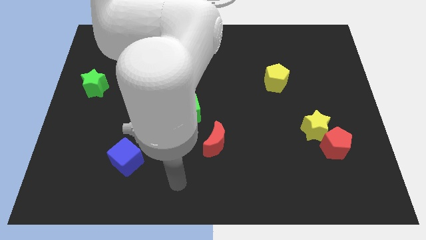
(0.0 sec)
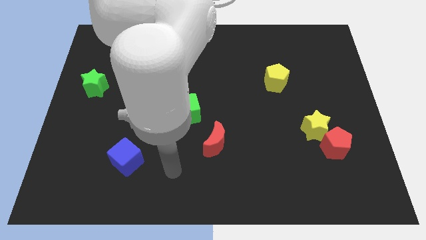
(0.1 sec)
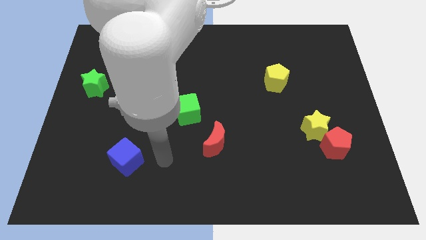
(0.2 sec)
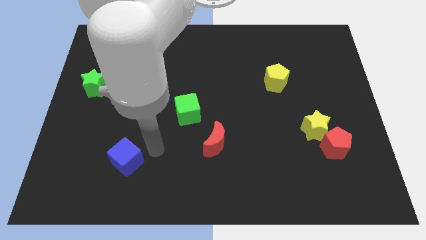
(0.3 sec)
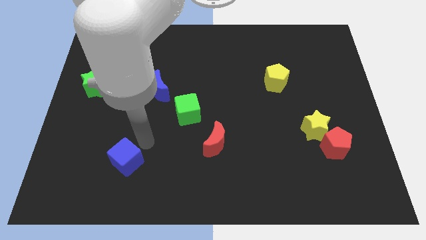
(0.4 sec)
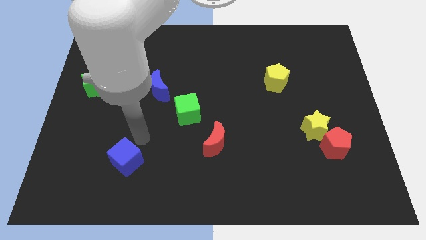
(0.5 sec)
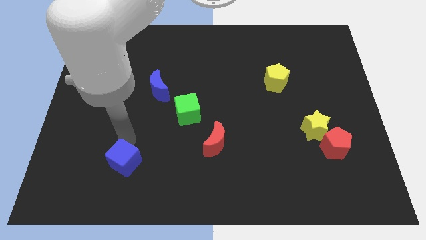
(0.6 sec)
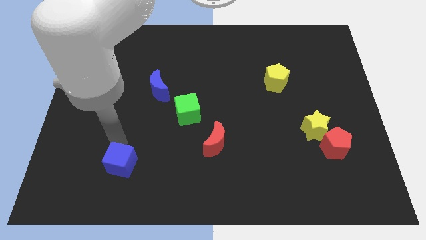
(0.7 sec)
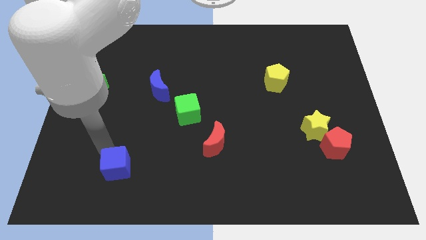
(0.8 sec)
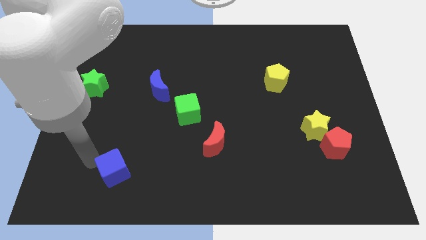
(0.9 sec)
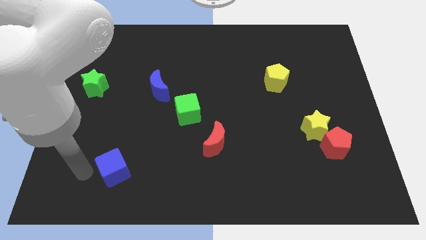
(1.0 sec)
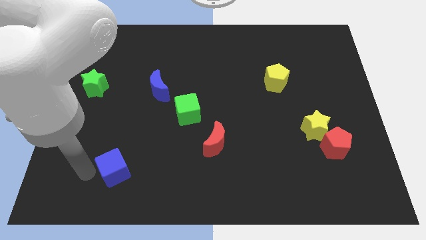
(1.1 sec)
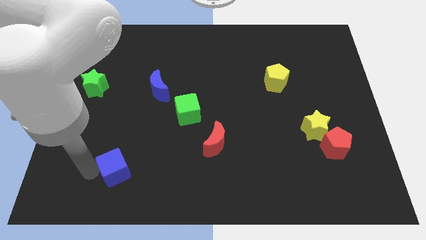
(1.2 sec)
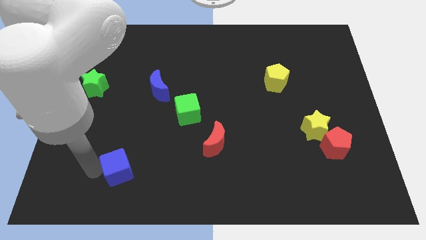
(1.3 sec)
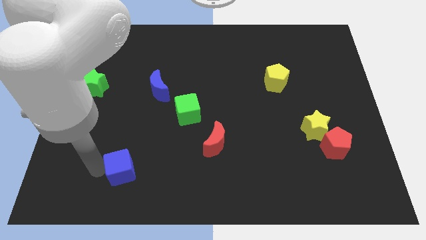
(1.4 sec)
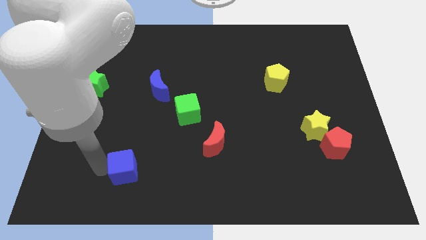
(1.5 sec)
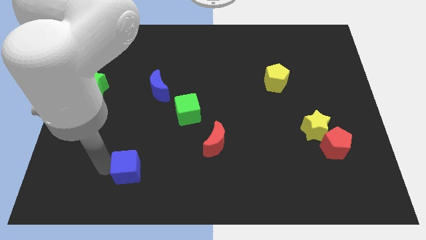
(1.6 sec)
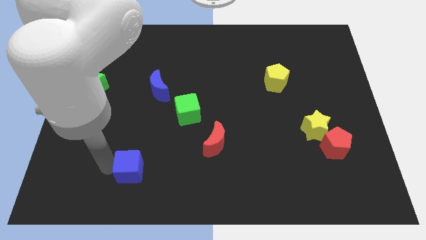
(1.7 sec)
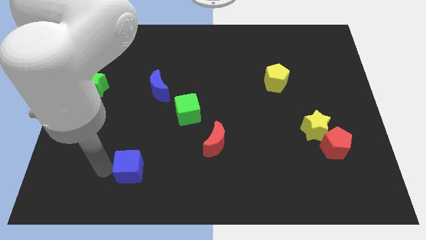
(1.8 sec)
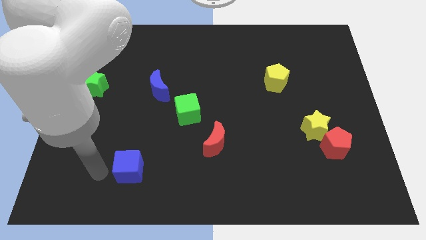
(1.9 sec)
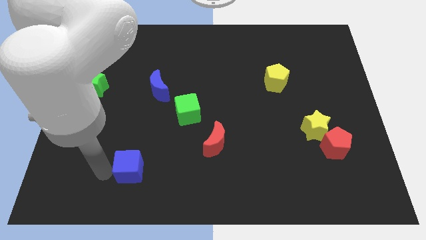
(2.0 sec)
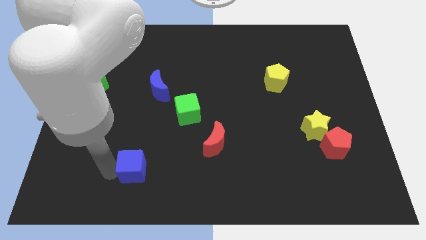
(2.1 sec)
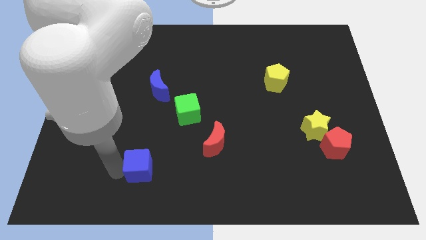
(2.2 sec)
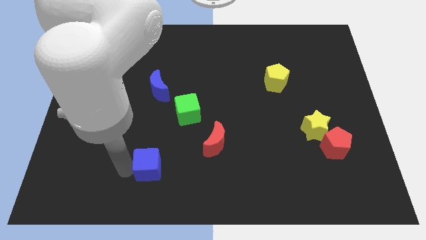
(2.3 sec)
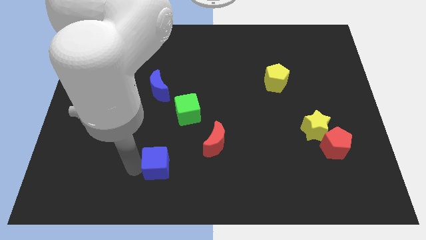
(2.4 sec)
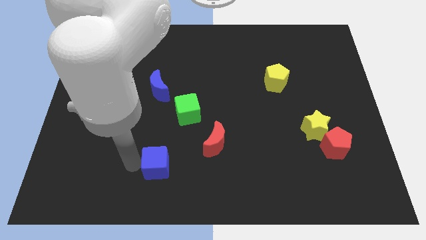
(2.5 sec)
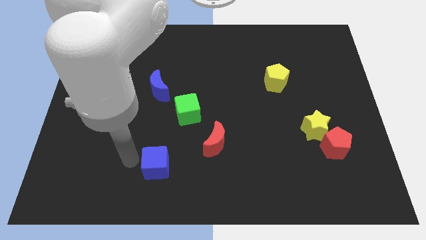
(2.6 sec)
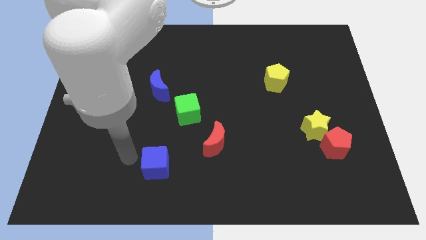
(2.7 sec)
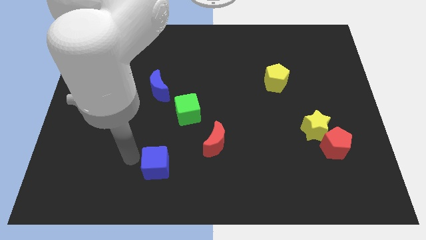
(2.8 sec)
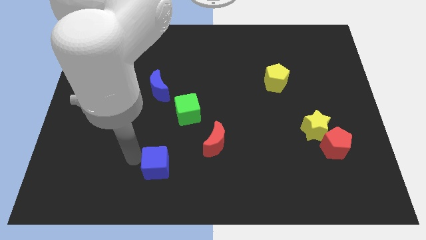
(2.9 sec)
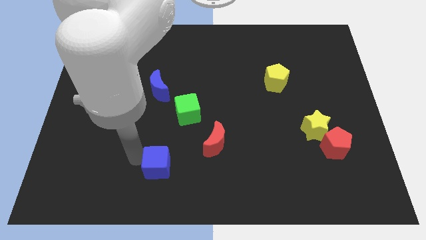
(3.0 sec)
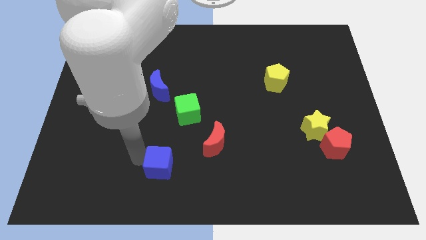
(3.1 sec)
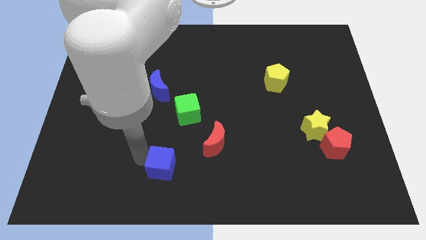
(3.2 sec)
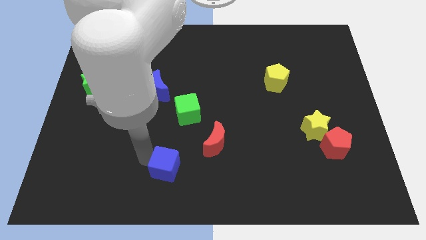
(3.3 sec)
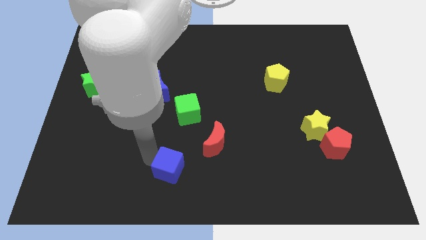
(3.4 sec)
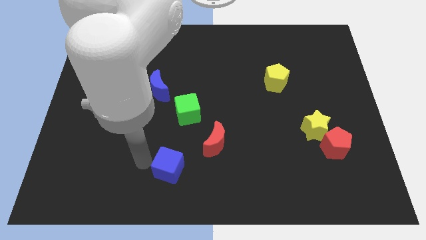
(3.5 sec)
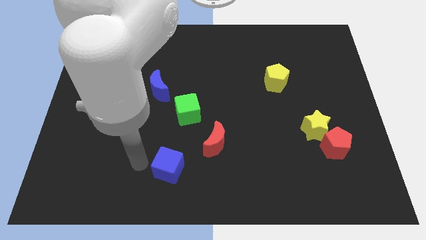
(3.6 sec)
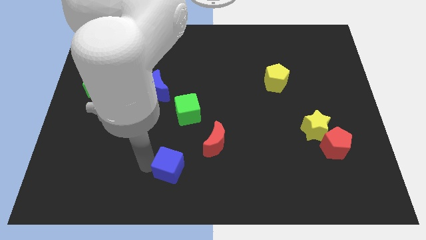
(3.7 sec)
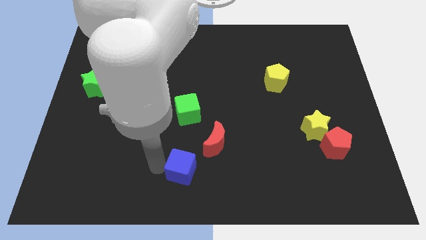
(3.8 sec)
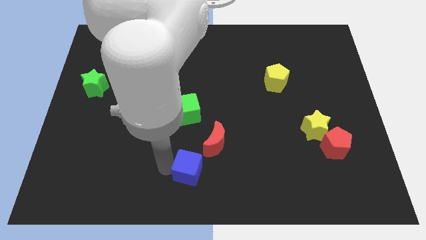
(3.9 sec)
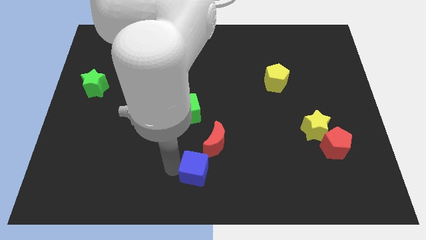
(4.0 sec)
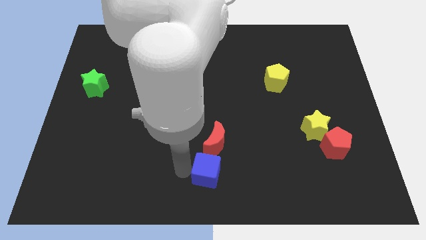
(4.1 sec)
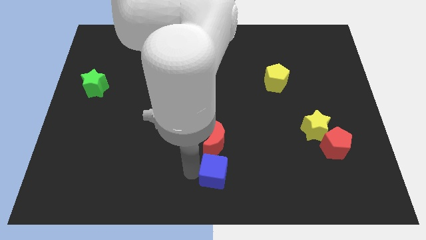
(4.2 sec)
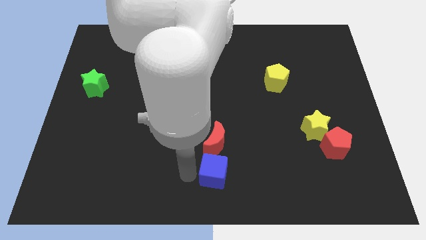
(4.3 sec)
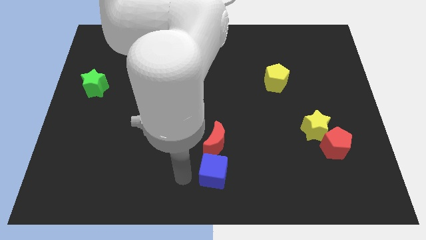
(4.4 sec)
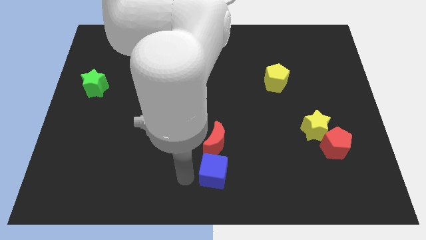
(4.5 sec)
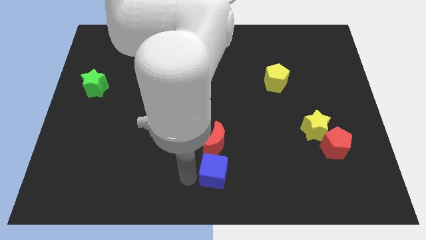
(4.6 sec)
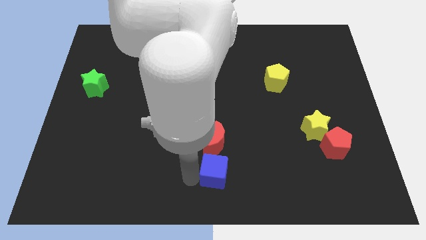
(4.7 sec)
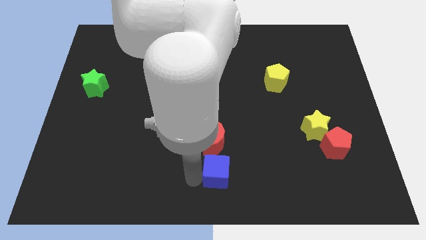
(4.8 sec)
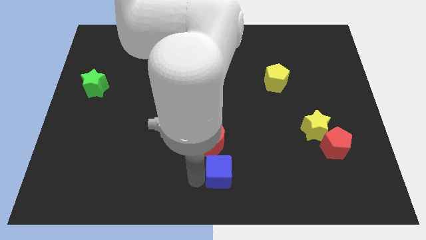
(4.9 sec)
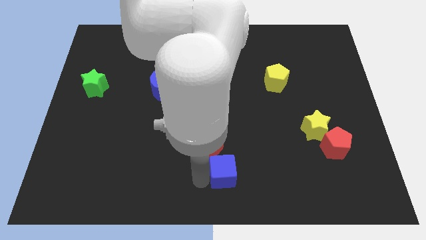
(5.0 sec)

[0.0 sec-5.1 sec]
move the blue cube right

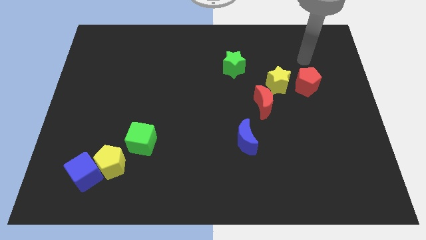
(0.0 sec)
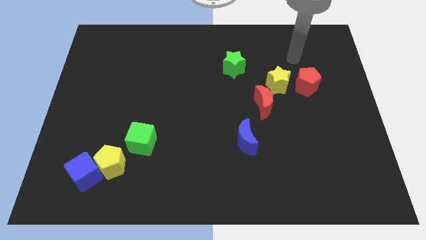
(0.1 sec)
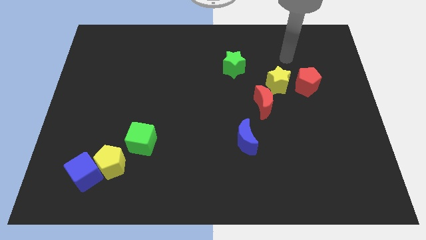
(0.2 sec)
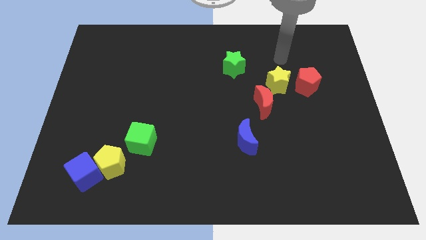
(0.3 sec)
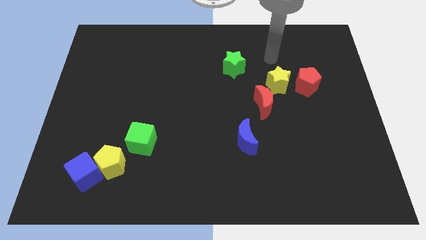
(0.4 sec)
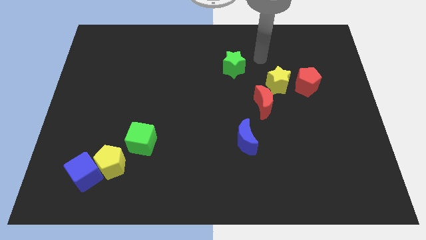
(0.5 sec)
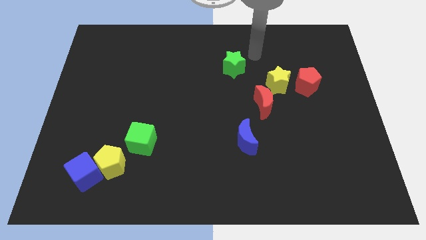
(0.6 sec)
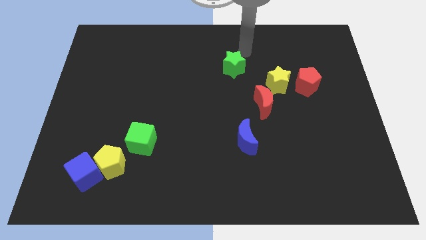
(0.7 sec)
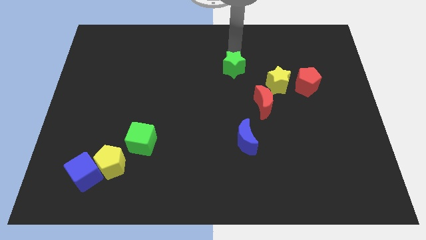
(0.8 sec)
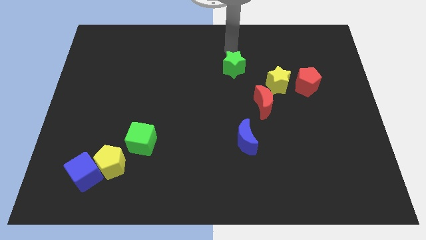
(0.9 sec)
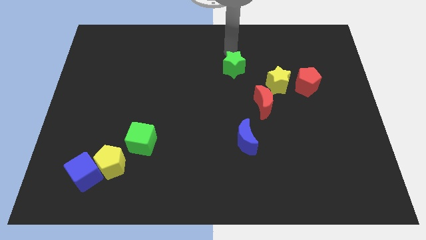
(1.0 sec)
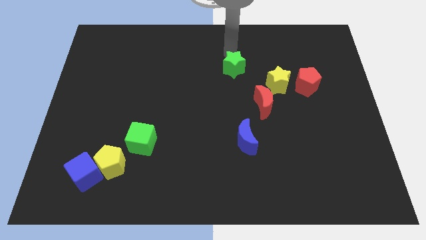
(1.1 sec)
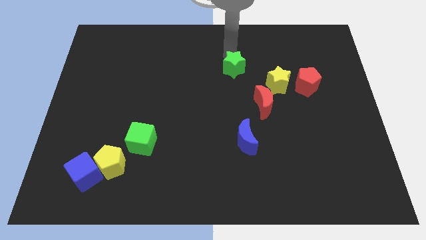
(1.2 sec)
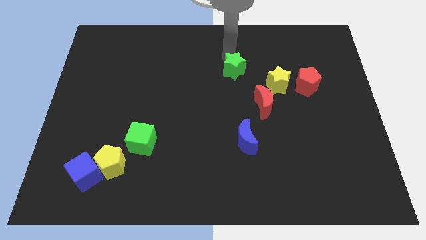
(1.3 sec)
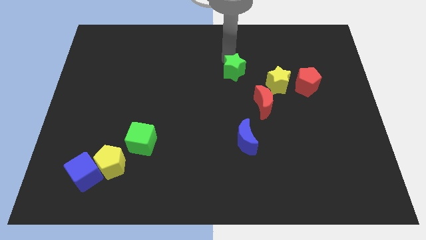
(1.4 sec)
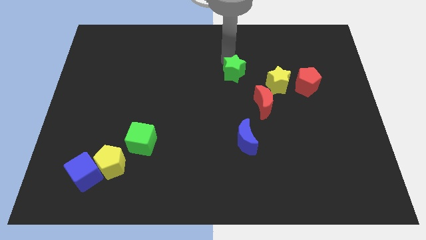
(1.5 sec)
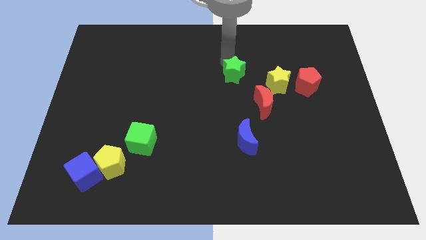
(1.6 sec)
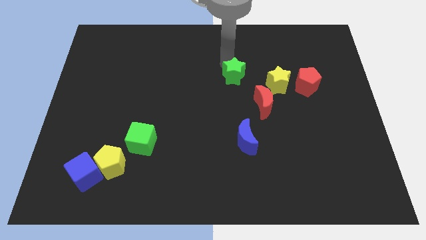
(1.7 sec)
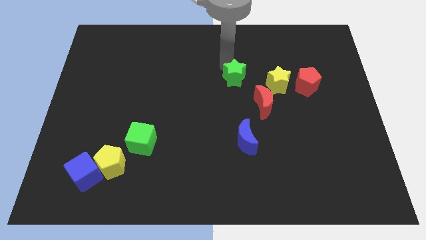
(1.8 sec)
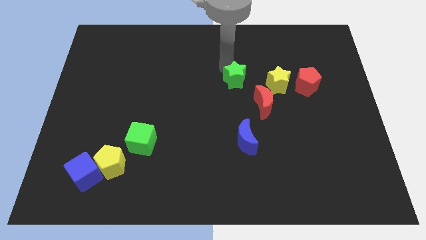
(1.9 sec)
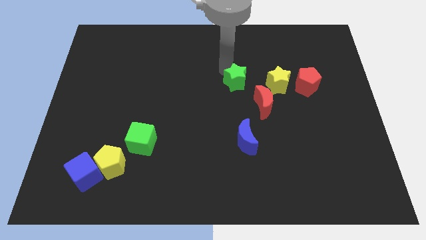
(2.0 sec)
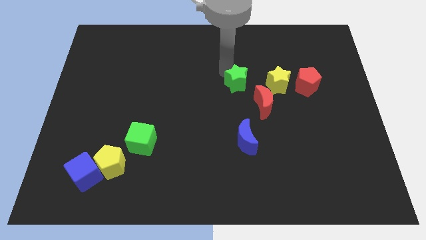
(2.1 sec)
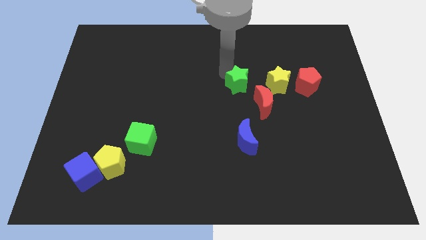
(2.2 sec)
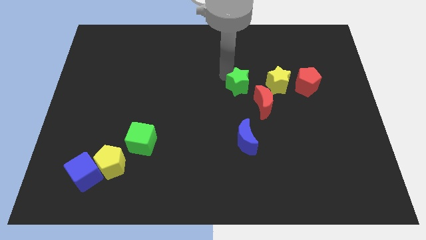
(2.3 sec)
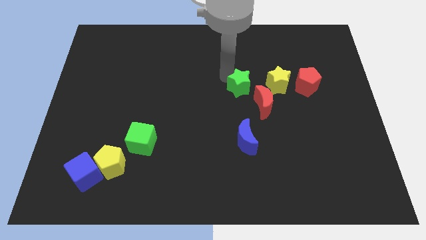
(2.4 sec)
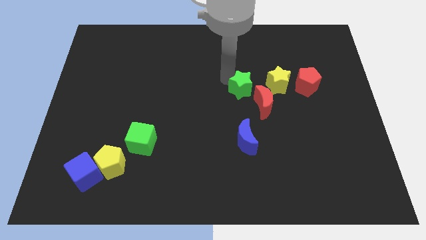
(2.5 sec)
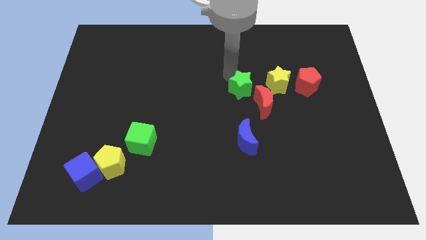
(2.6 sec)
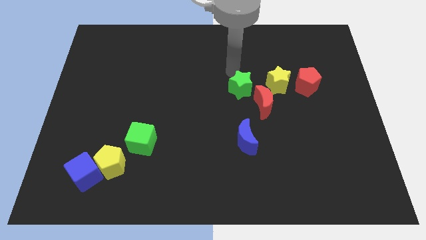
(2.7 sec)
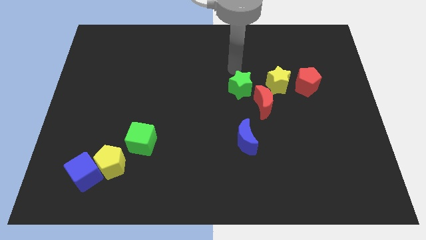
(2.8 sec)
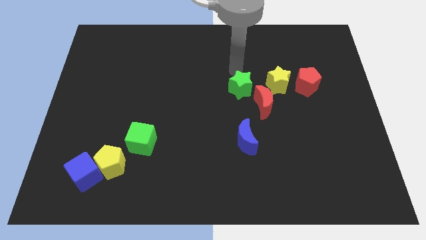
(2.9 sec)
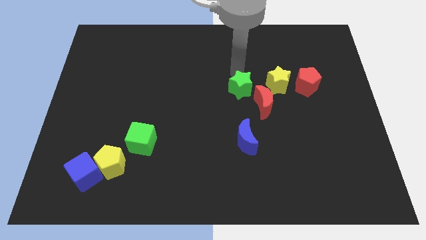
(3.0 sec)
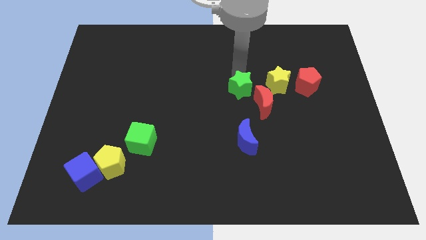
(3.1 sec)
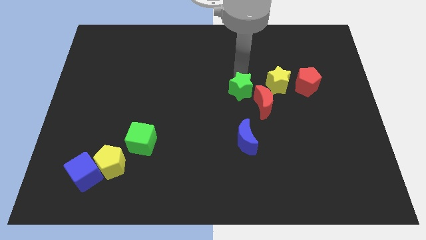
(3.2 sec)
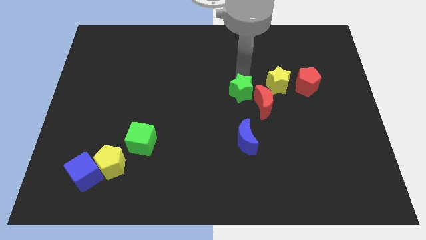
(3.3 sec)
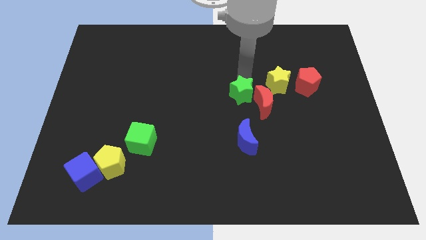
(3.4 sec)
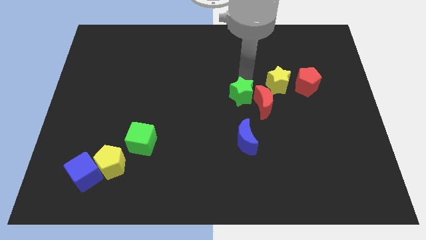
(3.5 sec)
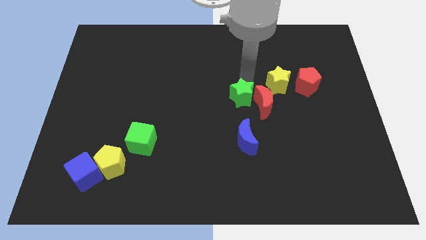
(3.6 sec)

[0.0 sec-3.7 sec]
slightly slide the green star diagonally downwards and to the right
